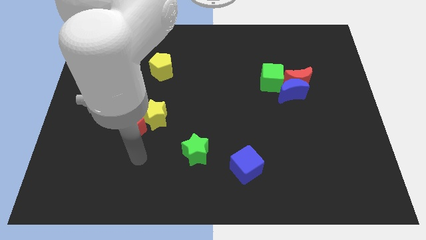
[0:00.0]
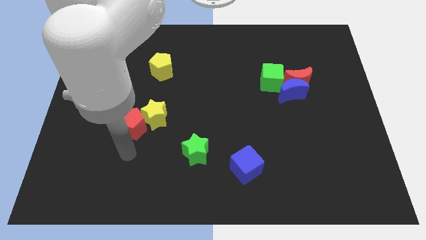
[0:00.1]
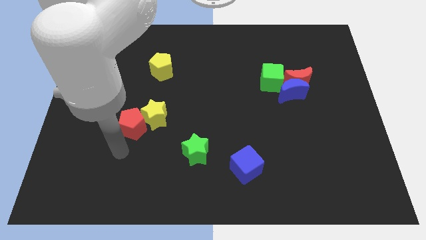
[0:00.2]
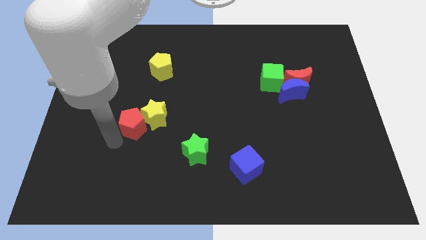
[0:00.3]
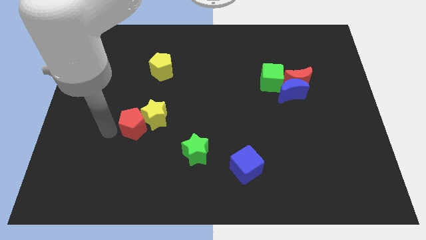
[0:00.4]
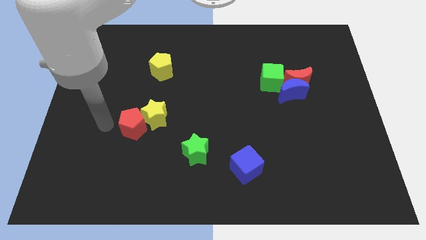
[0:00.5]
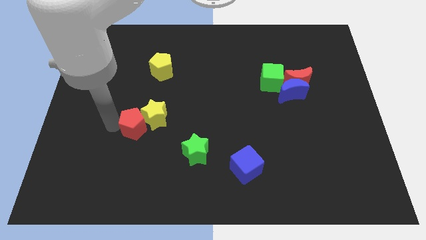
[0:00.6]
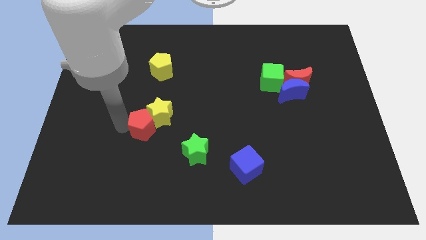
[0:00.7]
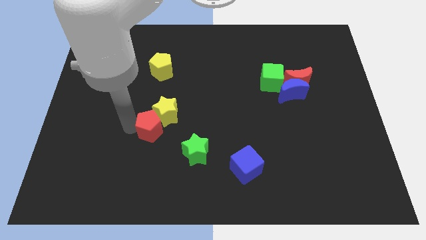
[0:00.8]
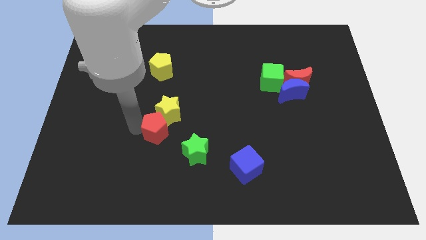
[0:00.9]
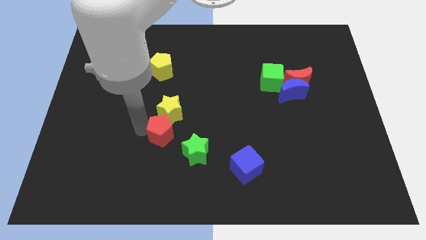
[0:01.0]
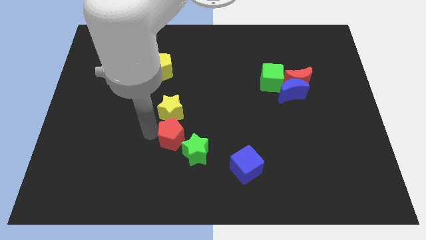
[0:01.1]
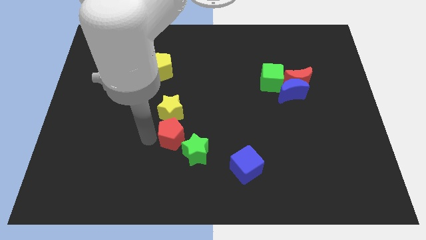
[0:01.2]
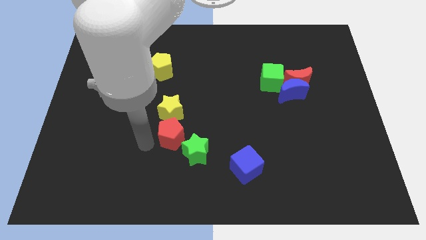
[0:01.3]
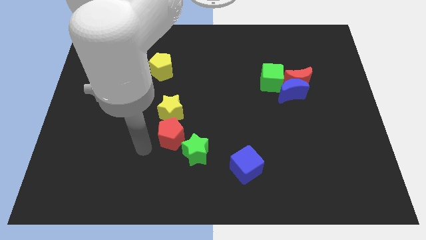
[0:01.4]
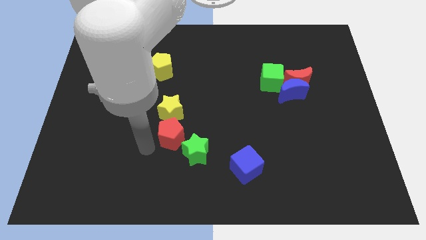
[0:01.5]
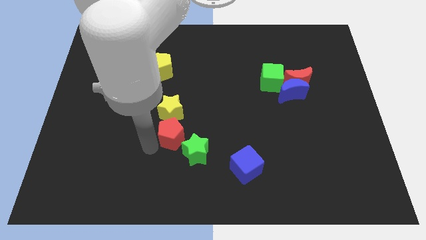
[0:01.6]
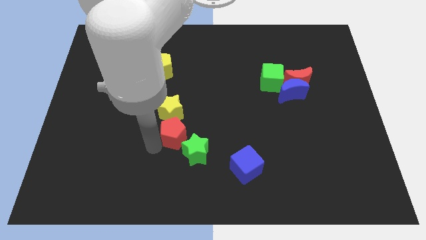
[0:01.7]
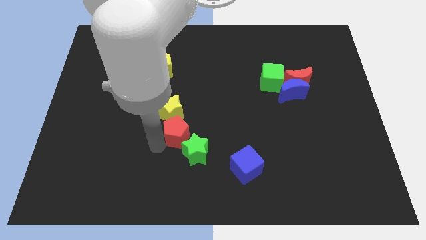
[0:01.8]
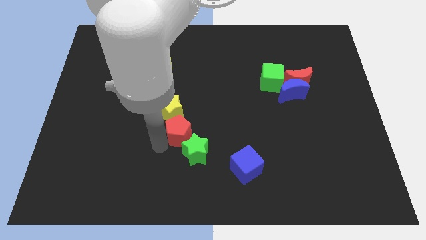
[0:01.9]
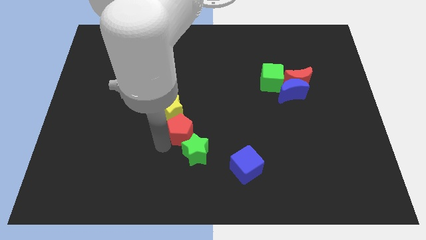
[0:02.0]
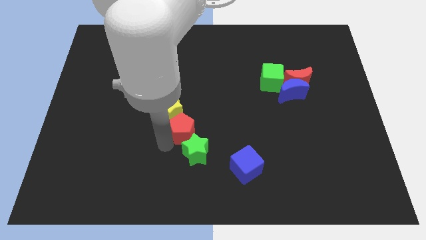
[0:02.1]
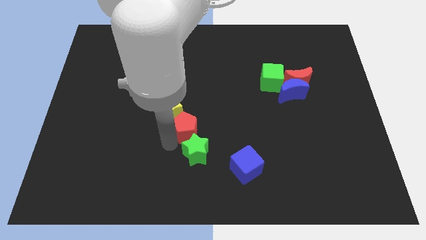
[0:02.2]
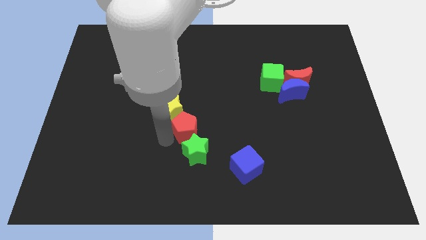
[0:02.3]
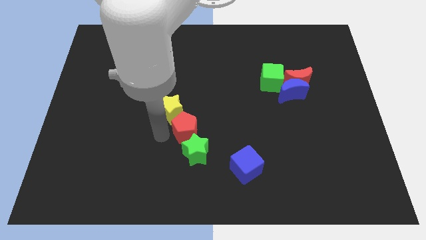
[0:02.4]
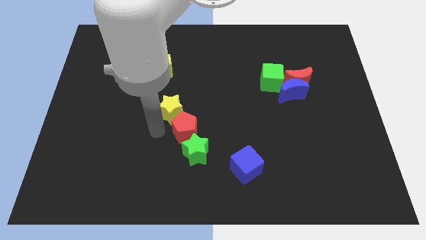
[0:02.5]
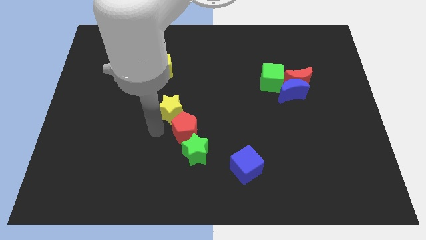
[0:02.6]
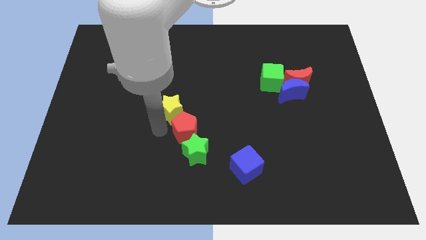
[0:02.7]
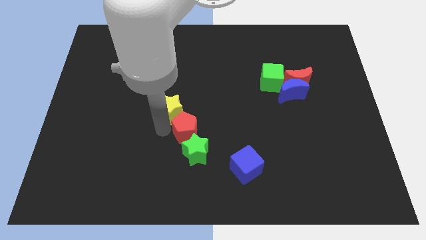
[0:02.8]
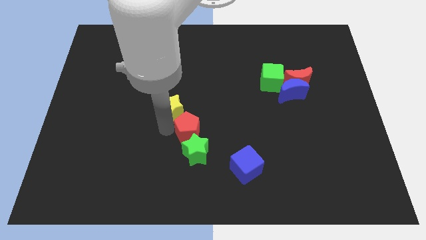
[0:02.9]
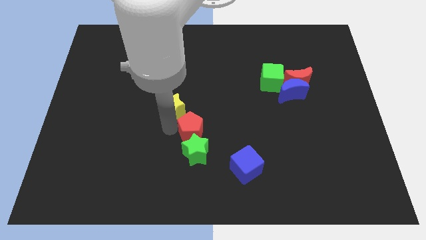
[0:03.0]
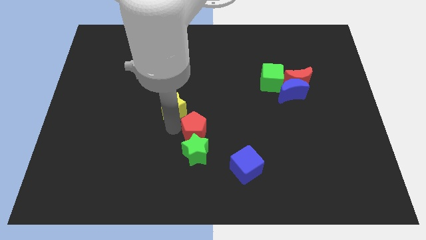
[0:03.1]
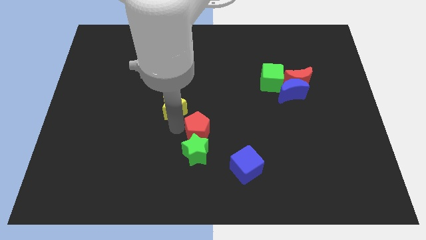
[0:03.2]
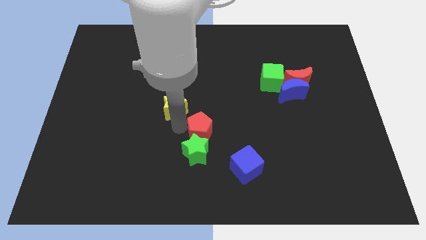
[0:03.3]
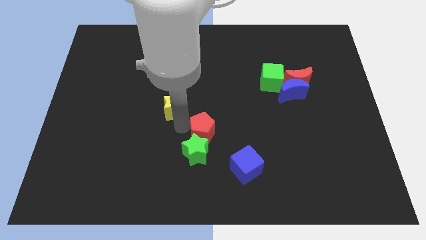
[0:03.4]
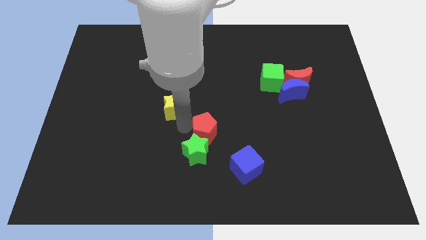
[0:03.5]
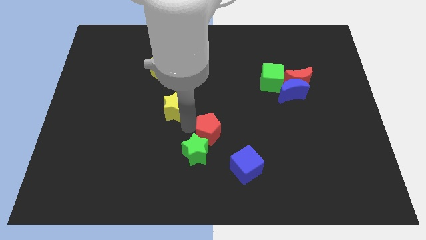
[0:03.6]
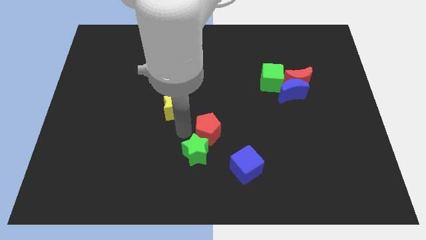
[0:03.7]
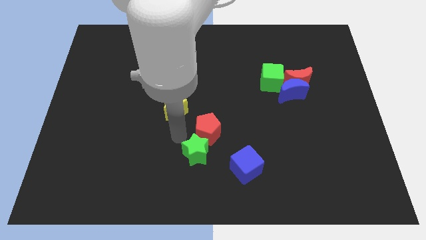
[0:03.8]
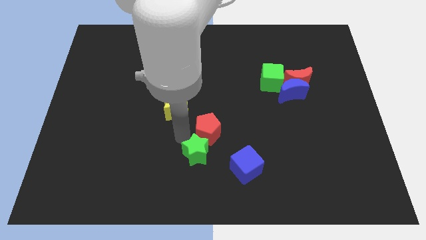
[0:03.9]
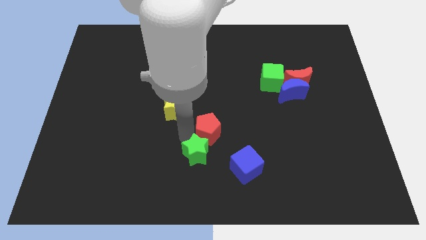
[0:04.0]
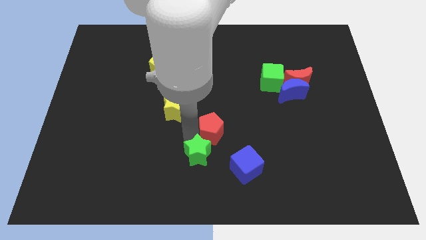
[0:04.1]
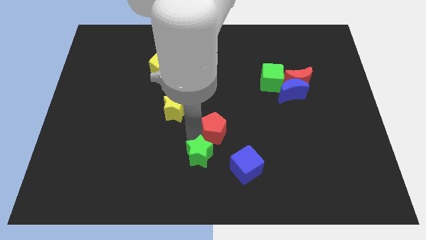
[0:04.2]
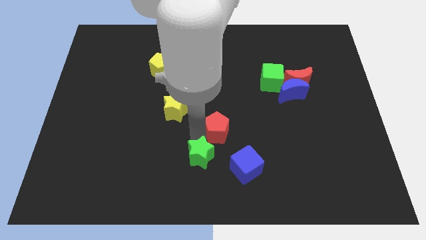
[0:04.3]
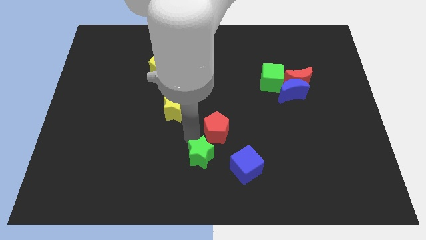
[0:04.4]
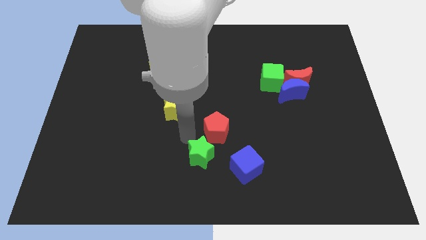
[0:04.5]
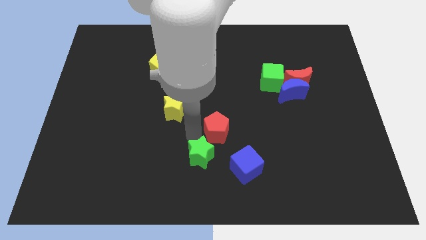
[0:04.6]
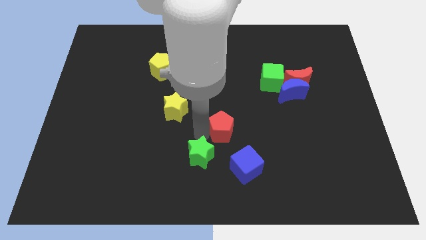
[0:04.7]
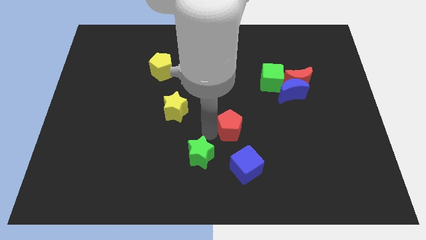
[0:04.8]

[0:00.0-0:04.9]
move the red pentagon to the top side of the blue cube

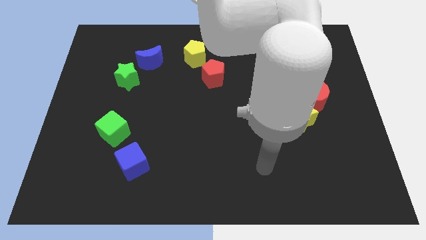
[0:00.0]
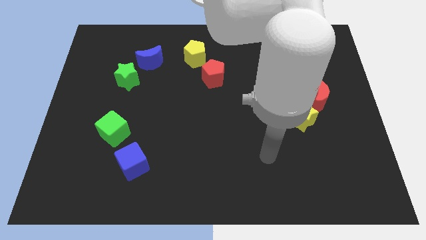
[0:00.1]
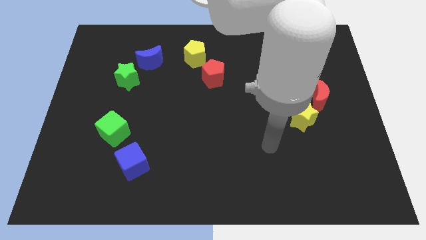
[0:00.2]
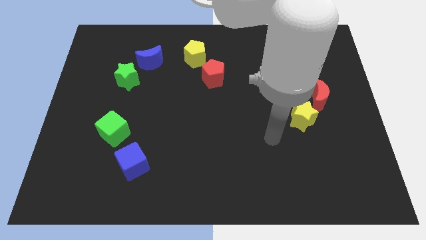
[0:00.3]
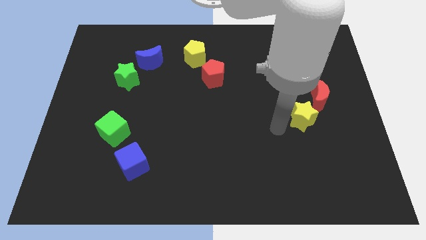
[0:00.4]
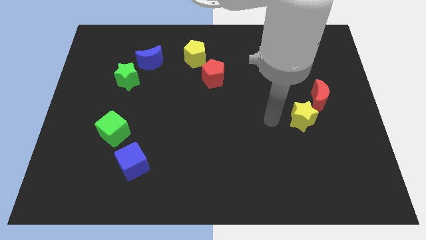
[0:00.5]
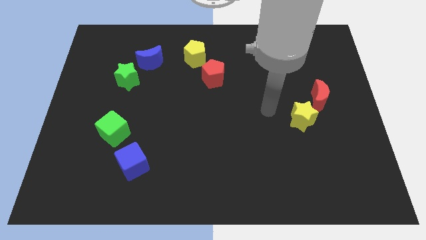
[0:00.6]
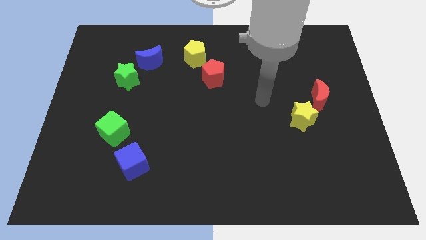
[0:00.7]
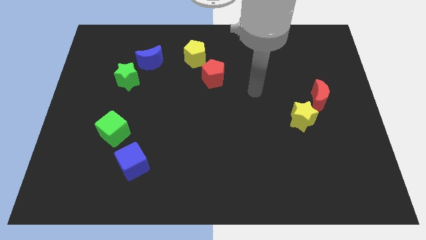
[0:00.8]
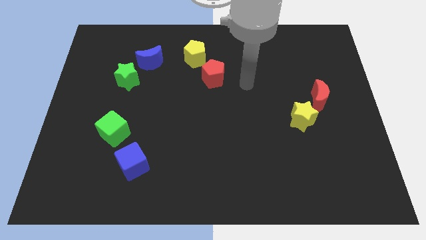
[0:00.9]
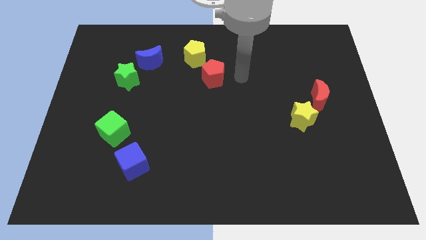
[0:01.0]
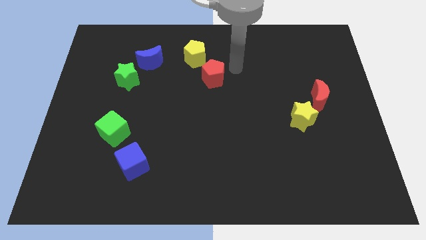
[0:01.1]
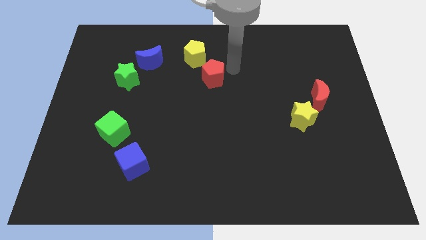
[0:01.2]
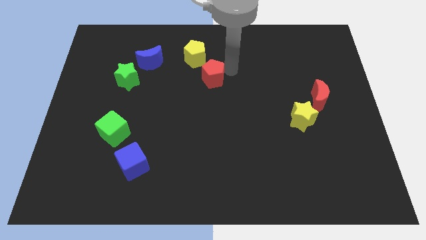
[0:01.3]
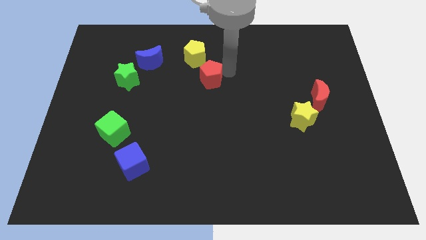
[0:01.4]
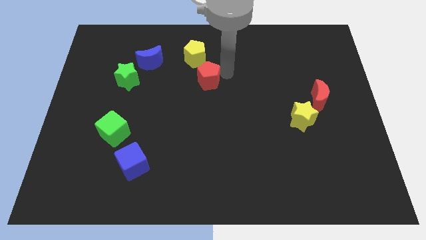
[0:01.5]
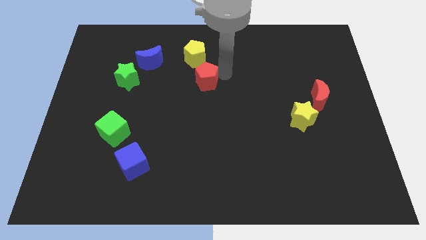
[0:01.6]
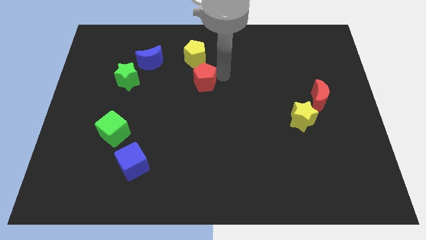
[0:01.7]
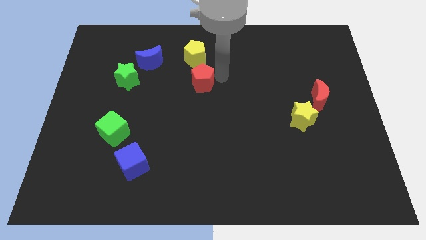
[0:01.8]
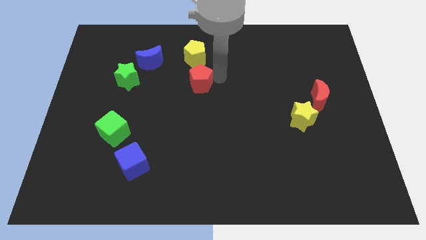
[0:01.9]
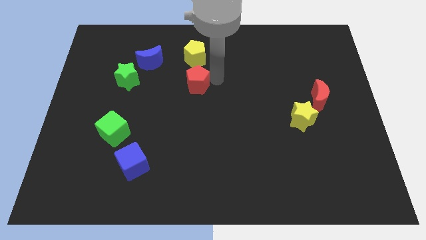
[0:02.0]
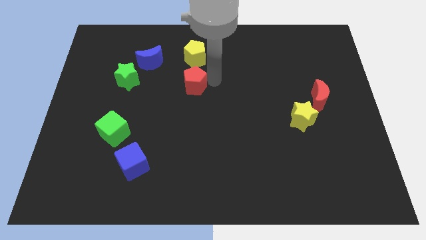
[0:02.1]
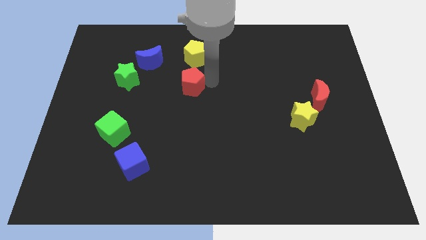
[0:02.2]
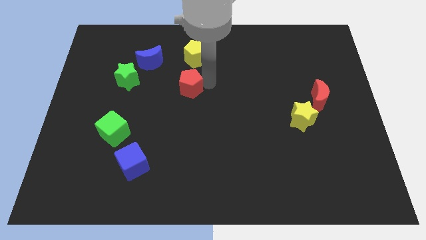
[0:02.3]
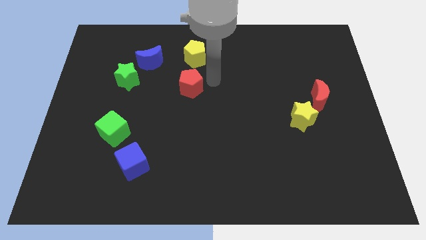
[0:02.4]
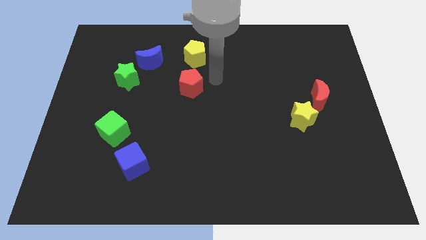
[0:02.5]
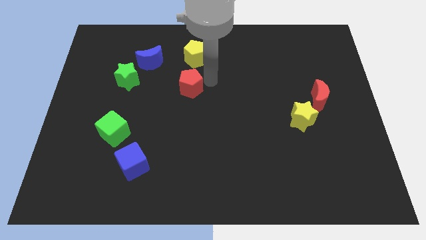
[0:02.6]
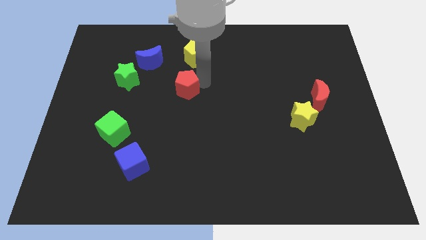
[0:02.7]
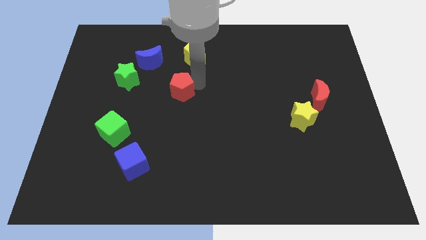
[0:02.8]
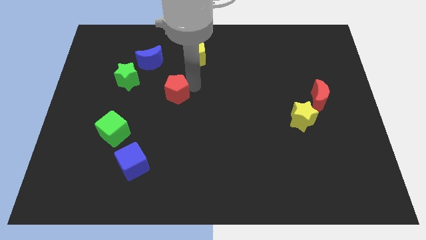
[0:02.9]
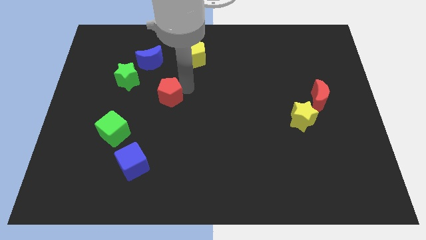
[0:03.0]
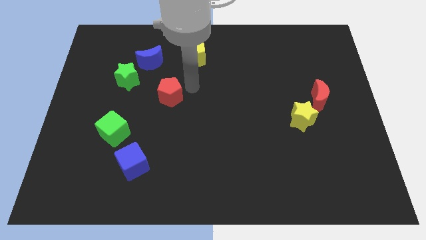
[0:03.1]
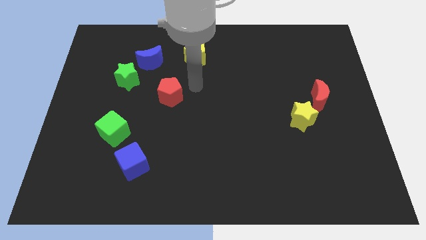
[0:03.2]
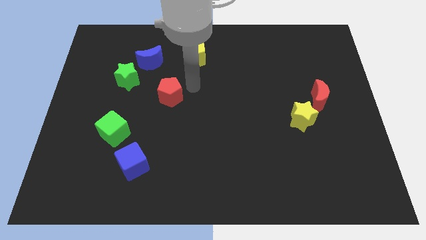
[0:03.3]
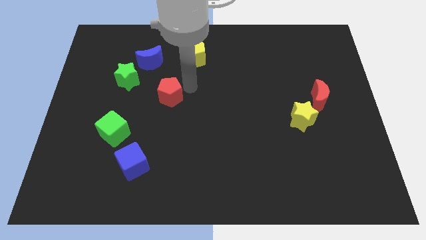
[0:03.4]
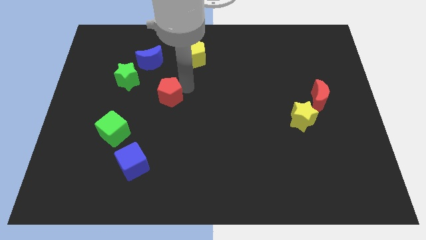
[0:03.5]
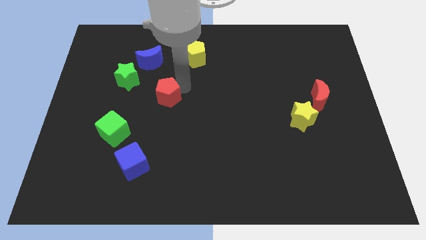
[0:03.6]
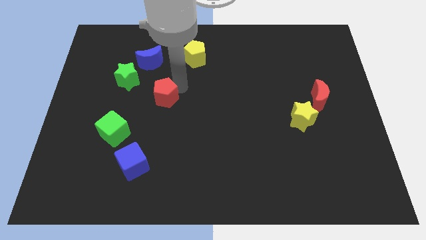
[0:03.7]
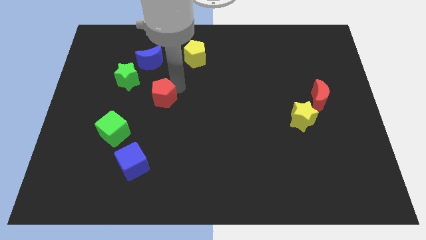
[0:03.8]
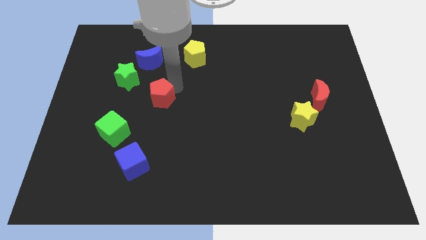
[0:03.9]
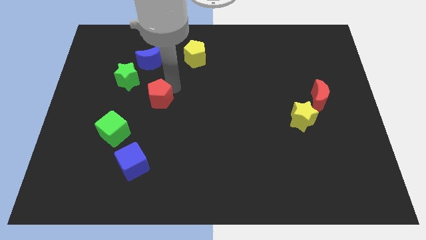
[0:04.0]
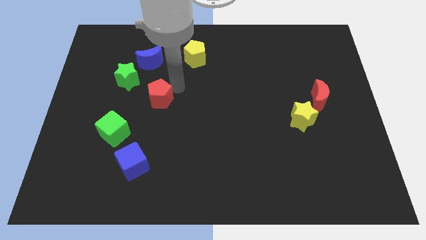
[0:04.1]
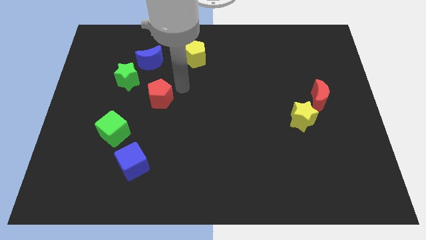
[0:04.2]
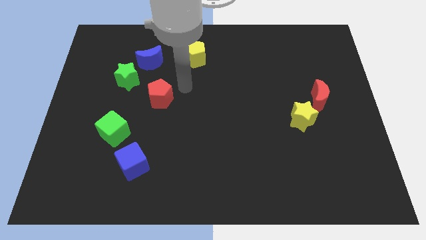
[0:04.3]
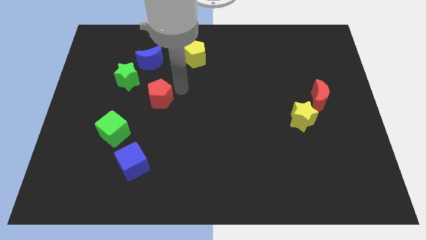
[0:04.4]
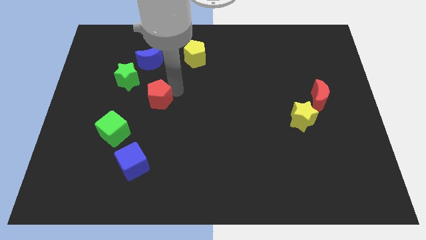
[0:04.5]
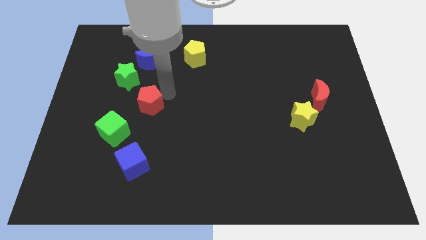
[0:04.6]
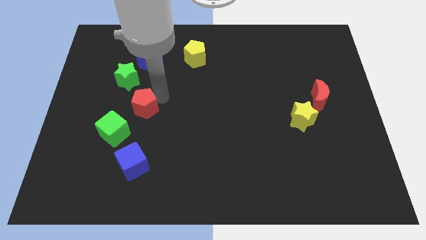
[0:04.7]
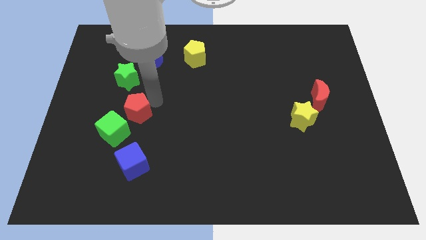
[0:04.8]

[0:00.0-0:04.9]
move the red pentagon below the green star
